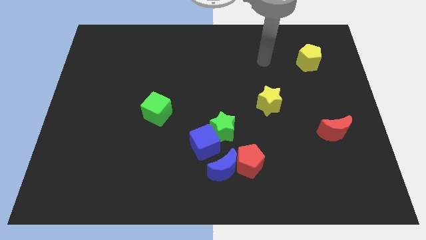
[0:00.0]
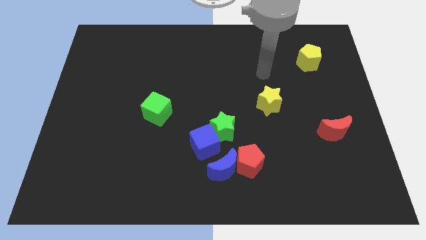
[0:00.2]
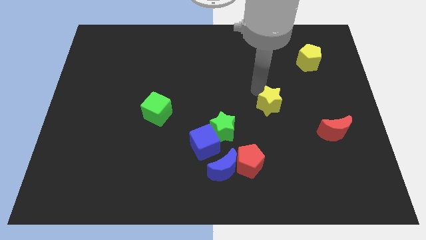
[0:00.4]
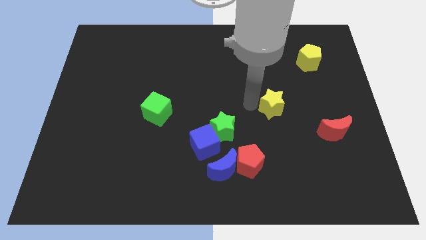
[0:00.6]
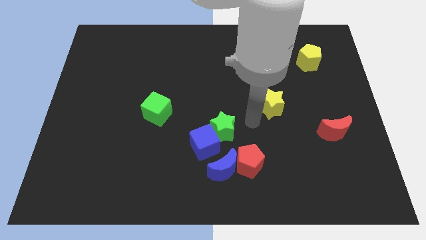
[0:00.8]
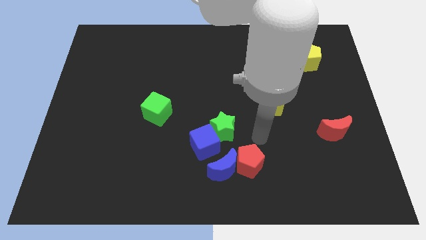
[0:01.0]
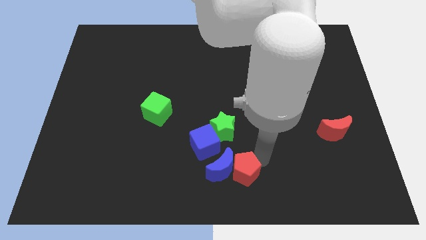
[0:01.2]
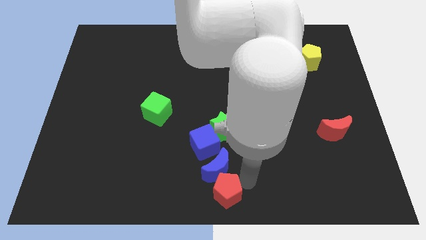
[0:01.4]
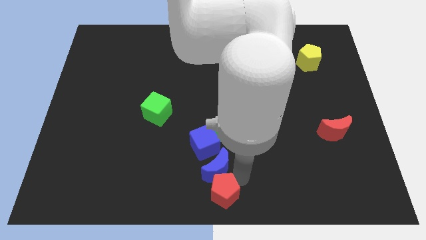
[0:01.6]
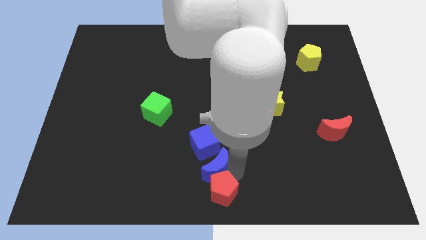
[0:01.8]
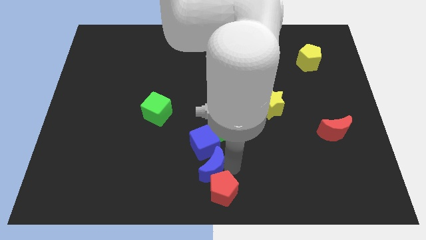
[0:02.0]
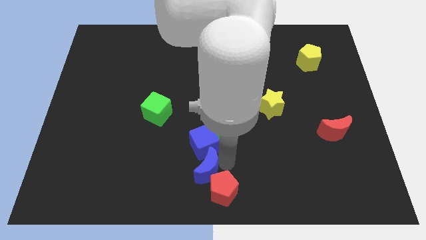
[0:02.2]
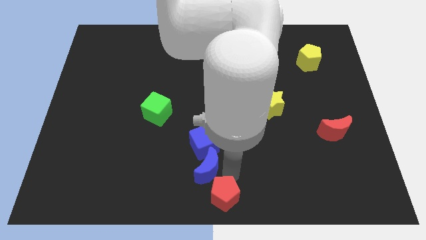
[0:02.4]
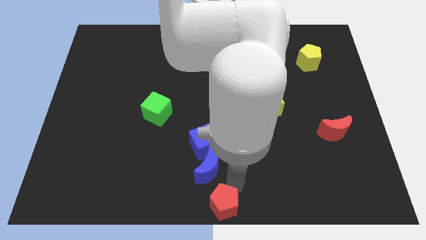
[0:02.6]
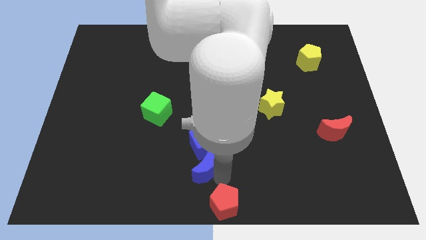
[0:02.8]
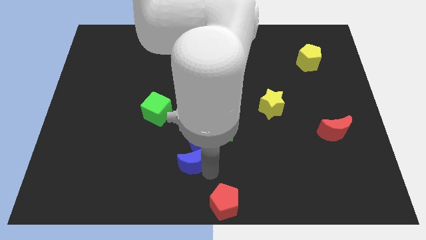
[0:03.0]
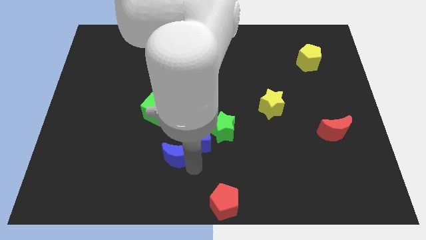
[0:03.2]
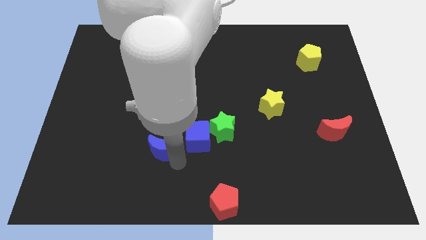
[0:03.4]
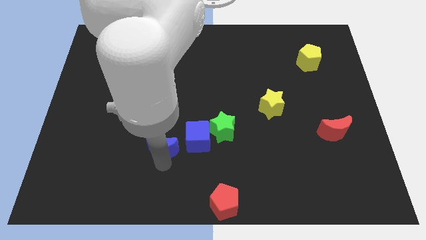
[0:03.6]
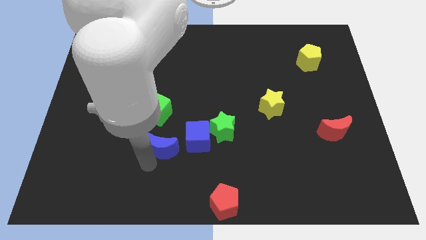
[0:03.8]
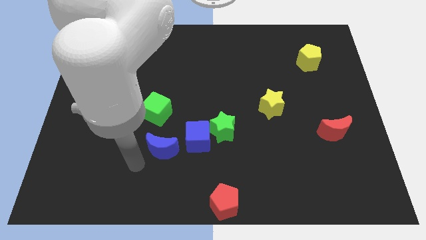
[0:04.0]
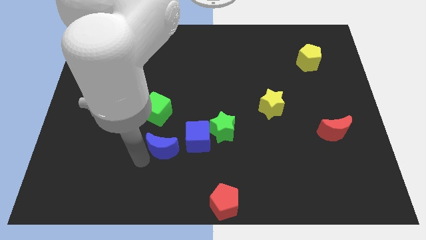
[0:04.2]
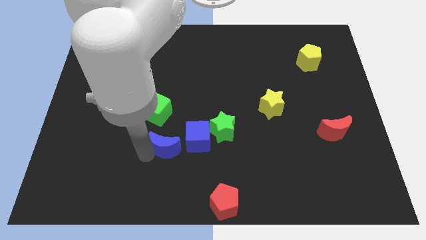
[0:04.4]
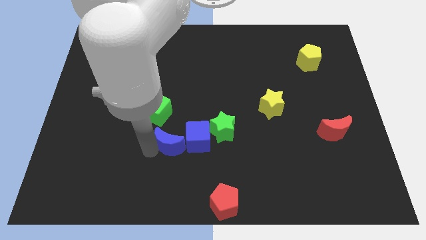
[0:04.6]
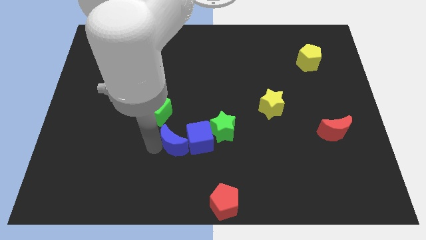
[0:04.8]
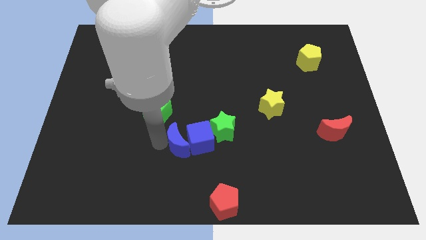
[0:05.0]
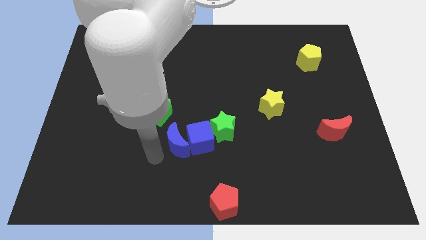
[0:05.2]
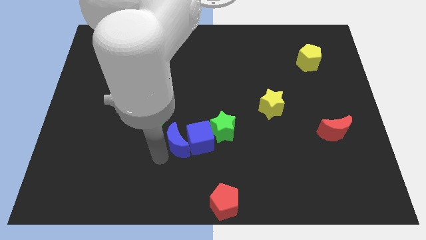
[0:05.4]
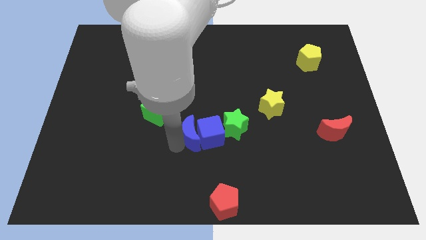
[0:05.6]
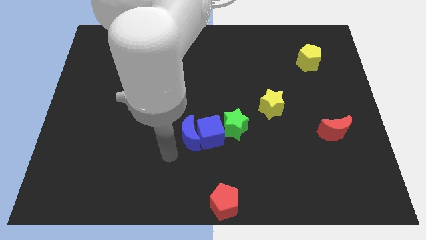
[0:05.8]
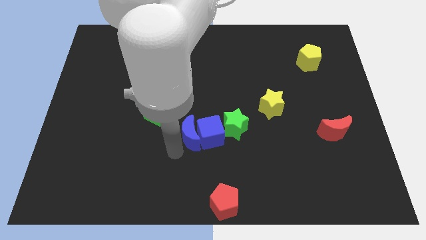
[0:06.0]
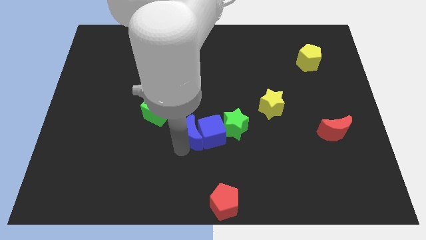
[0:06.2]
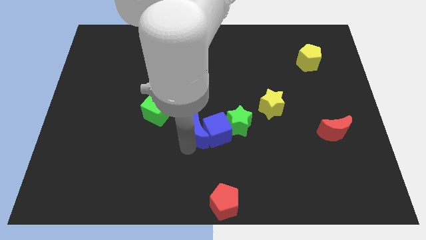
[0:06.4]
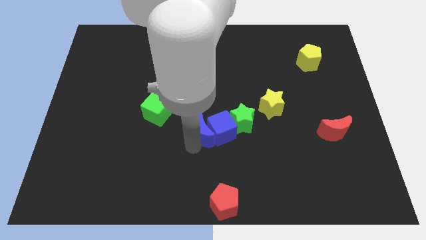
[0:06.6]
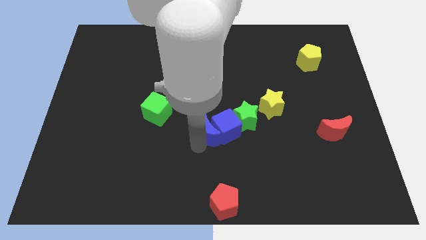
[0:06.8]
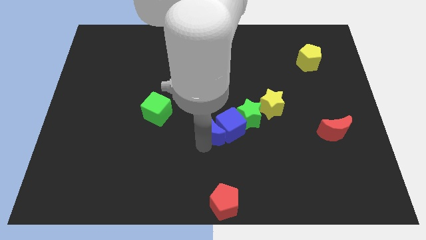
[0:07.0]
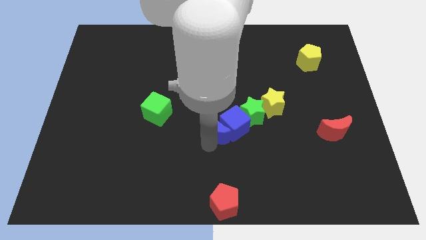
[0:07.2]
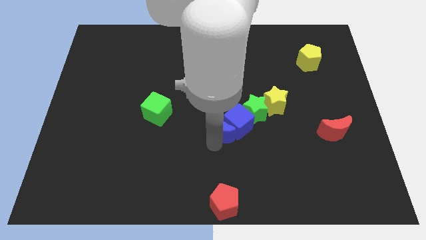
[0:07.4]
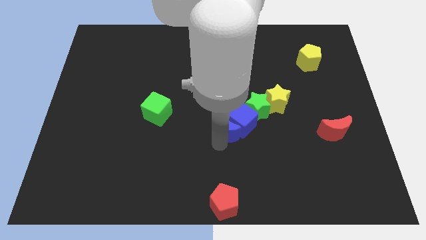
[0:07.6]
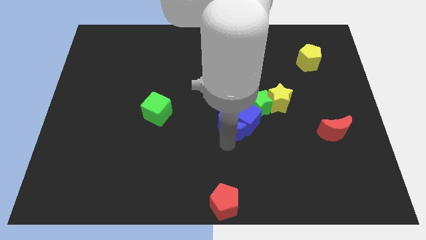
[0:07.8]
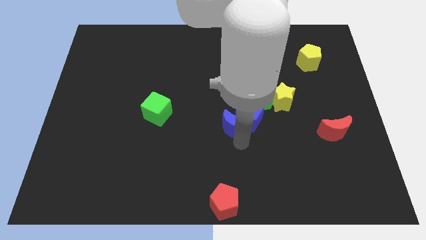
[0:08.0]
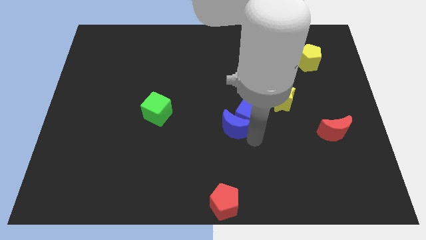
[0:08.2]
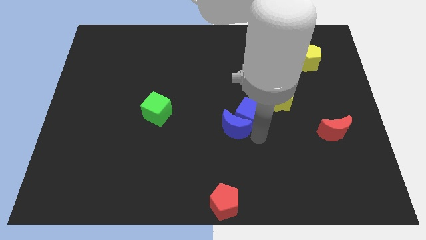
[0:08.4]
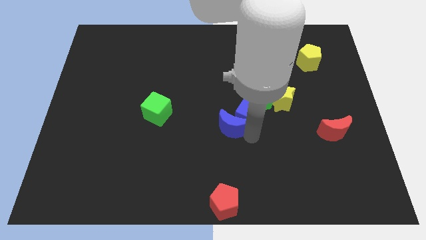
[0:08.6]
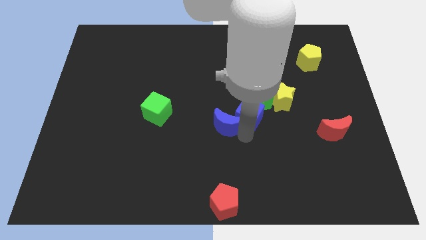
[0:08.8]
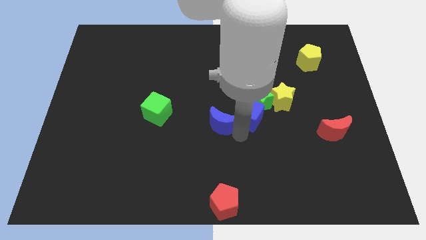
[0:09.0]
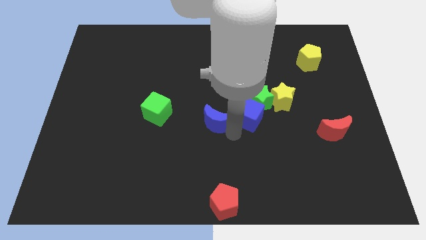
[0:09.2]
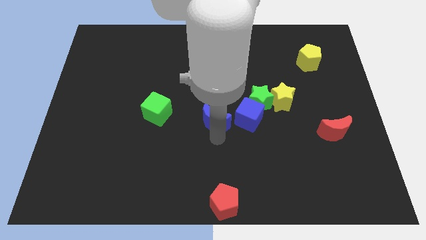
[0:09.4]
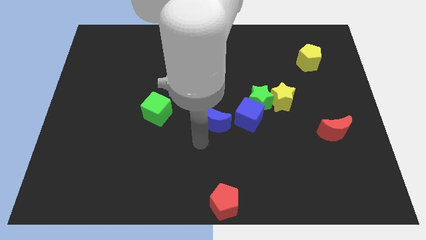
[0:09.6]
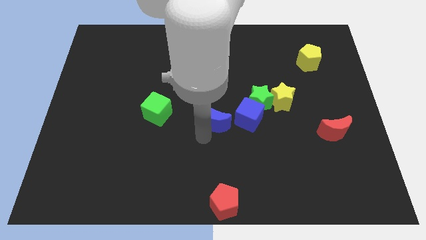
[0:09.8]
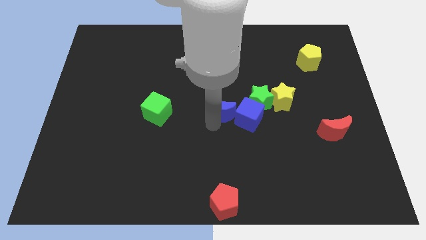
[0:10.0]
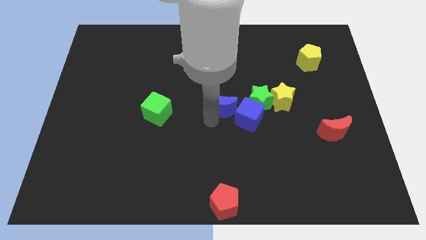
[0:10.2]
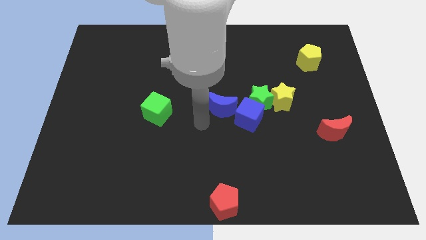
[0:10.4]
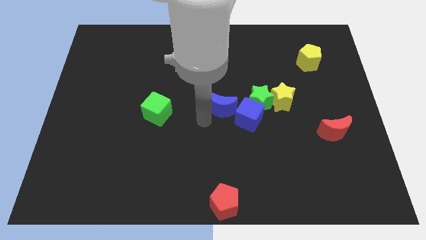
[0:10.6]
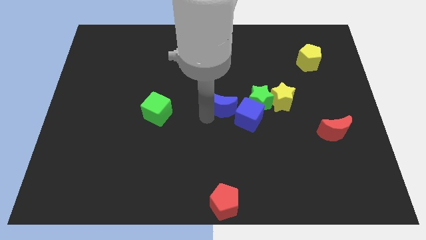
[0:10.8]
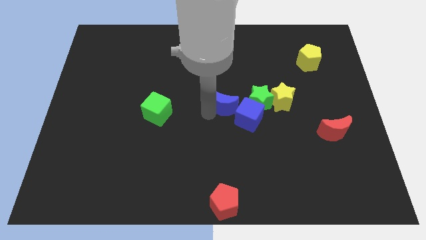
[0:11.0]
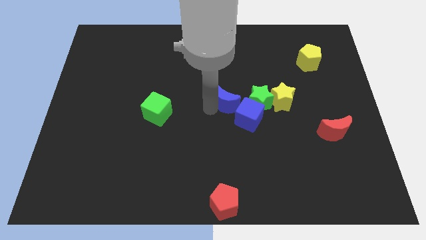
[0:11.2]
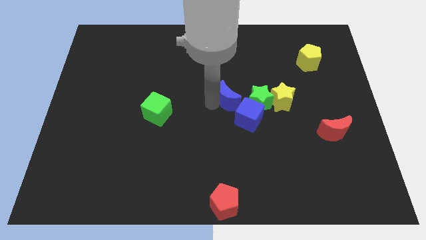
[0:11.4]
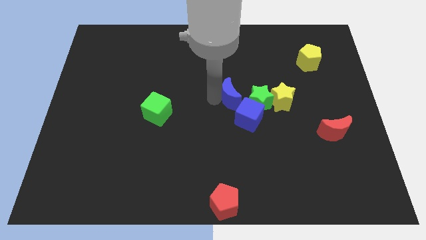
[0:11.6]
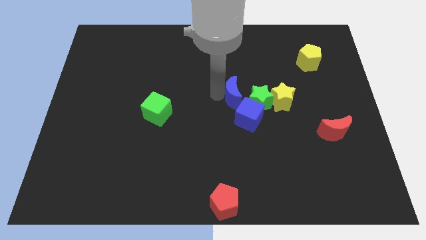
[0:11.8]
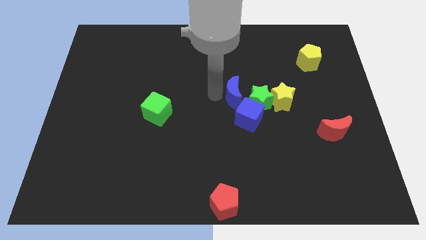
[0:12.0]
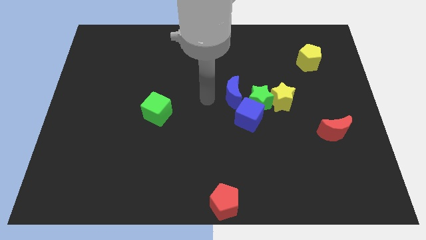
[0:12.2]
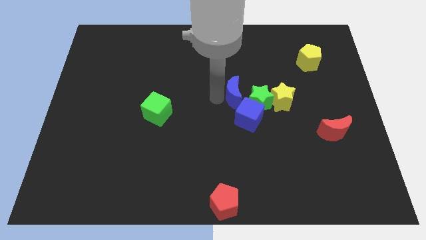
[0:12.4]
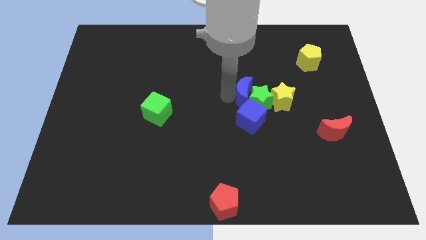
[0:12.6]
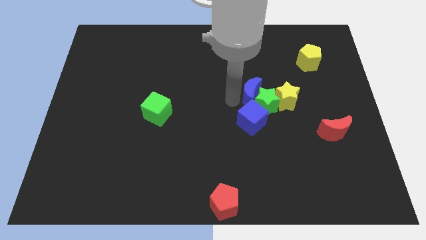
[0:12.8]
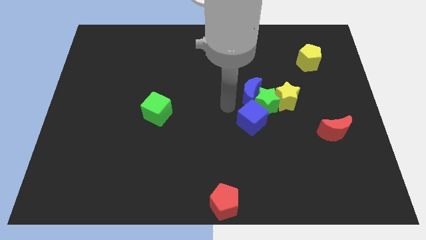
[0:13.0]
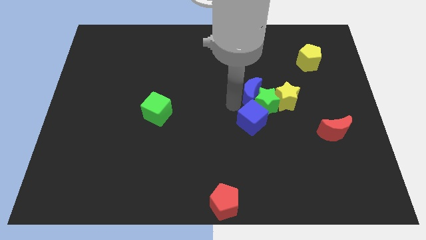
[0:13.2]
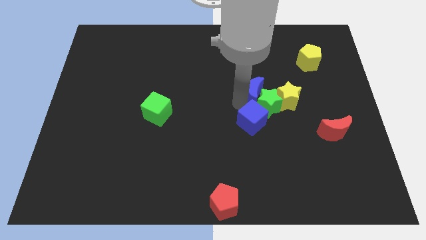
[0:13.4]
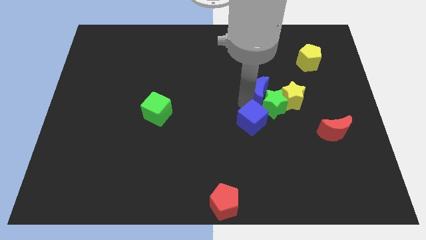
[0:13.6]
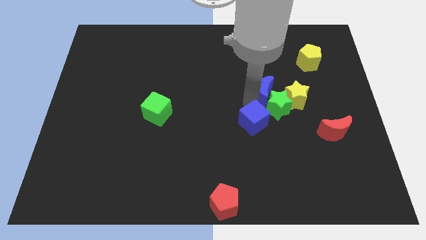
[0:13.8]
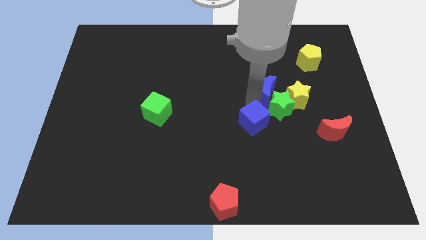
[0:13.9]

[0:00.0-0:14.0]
push the blue moon upwards and then to the right

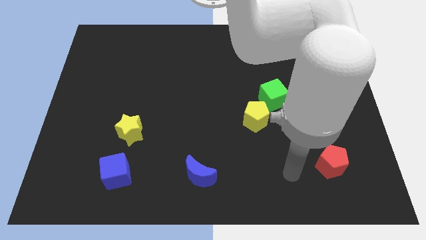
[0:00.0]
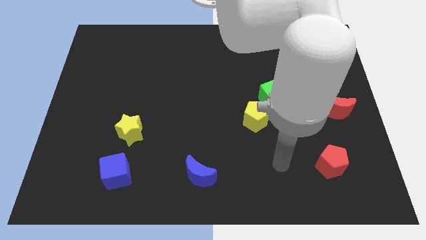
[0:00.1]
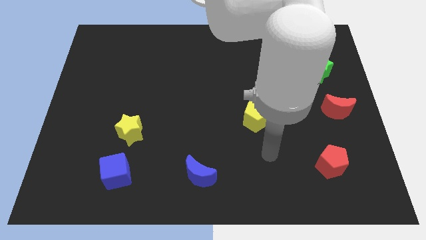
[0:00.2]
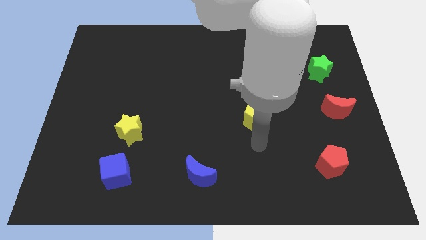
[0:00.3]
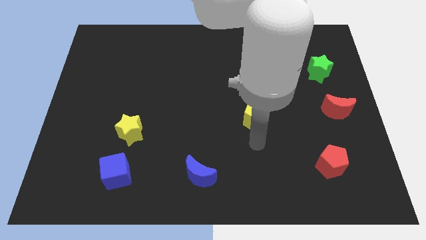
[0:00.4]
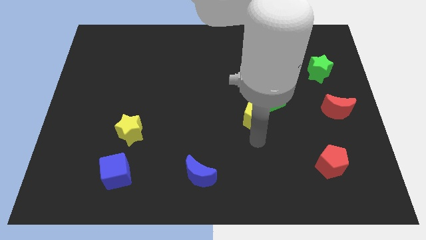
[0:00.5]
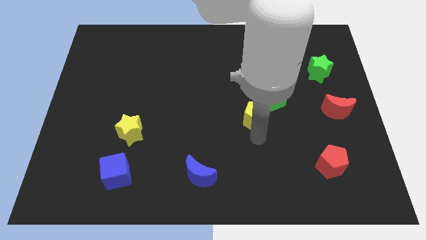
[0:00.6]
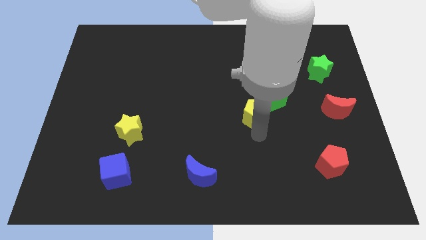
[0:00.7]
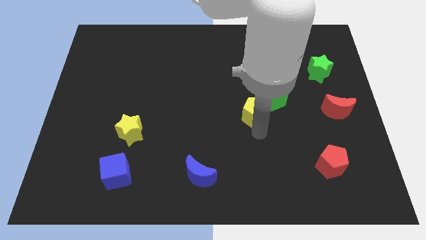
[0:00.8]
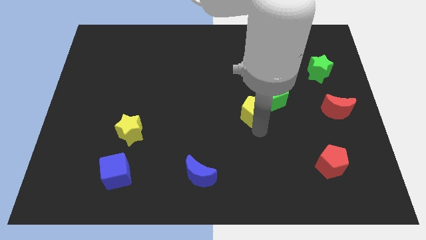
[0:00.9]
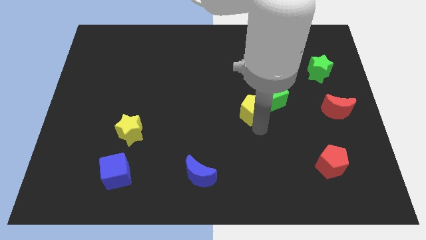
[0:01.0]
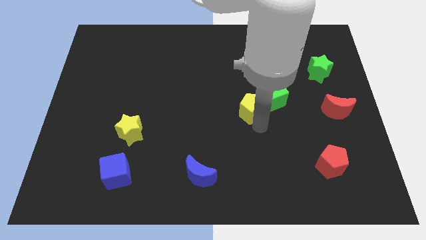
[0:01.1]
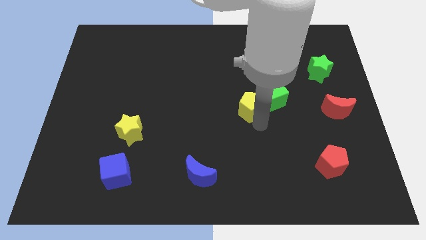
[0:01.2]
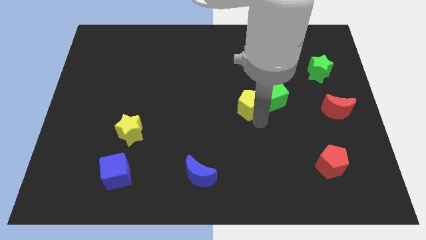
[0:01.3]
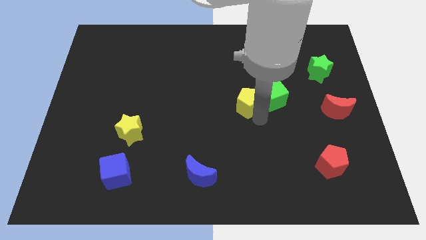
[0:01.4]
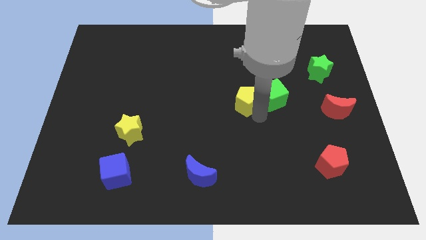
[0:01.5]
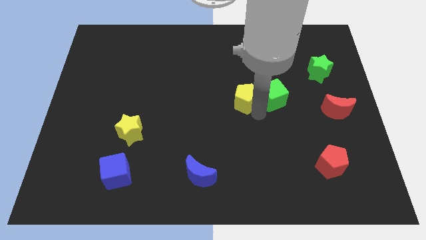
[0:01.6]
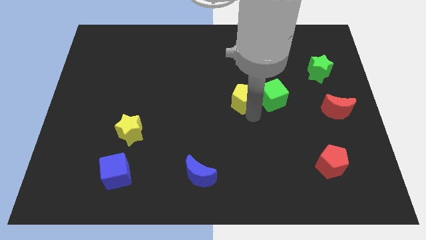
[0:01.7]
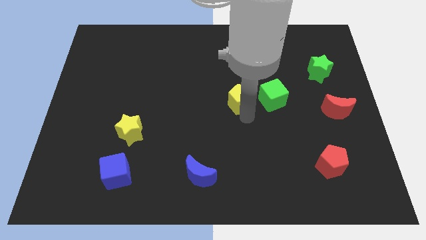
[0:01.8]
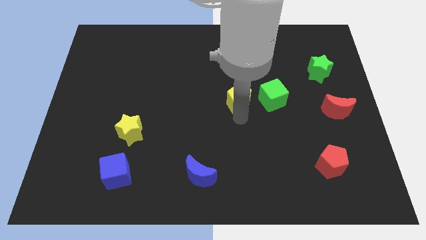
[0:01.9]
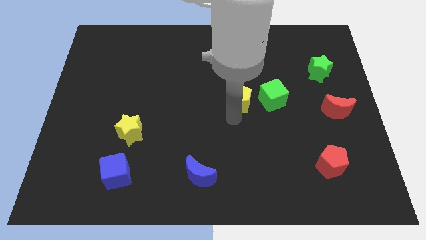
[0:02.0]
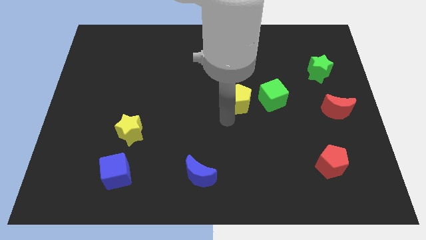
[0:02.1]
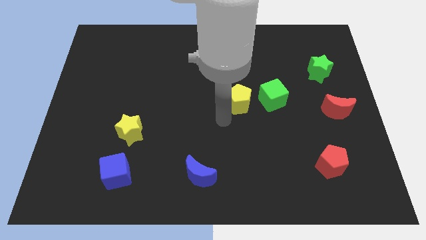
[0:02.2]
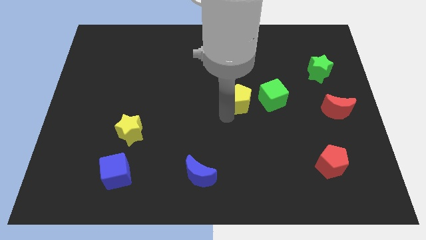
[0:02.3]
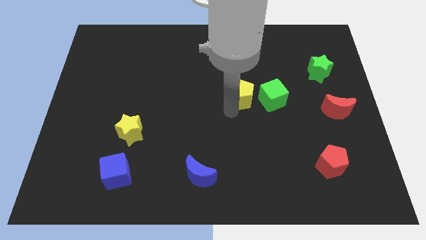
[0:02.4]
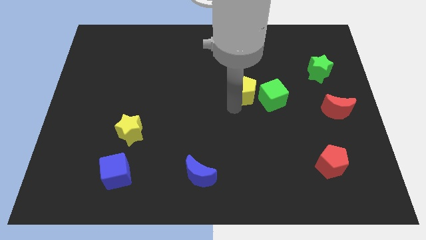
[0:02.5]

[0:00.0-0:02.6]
slightly push the yellow pentagon upwards
